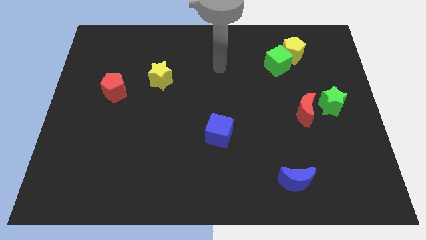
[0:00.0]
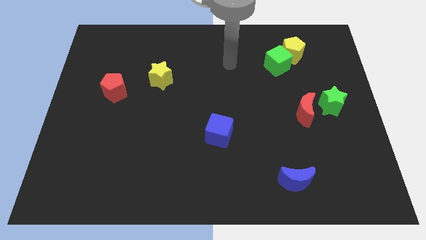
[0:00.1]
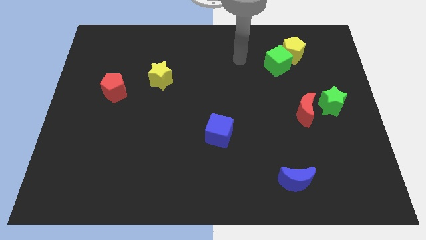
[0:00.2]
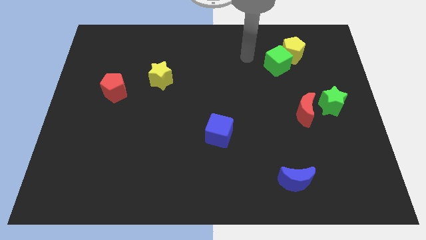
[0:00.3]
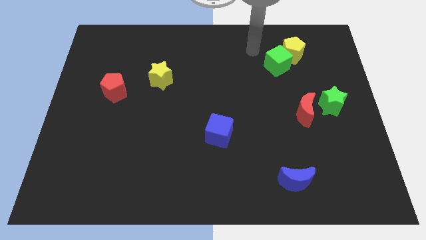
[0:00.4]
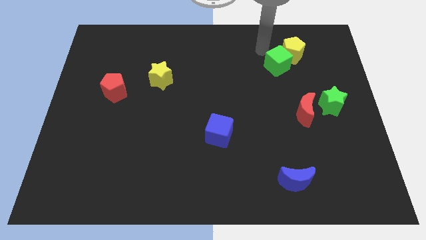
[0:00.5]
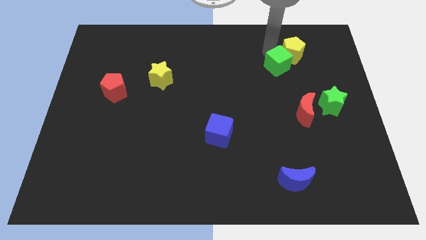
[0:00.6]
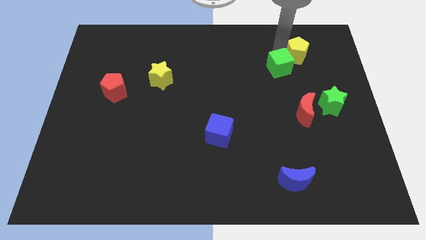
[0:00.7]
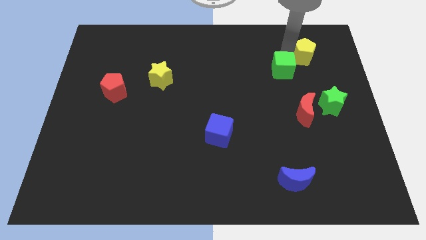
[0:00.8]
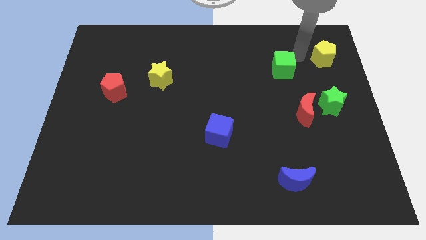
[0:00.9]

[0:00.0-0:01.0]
pull the green cube apart from the yellow pentagon

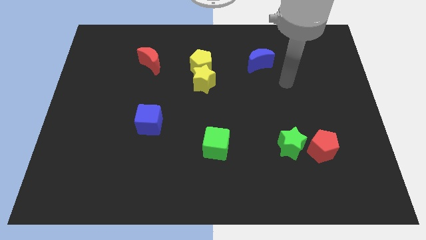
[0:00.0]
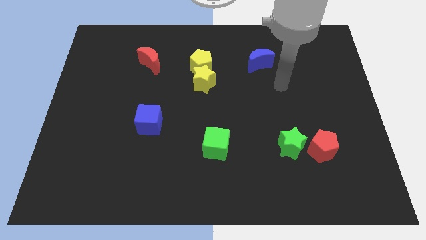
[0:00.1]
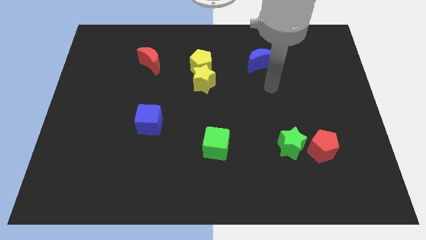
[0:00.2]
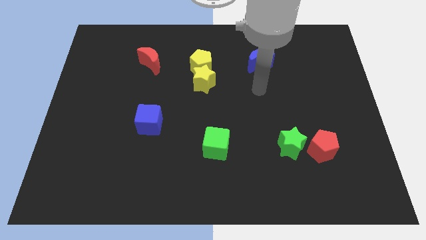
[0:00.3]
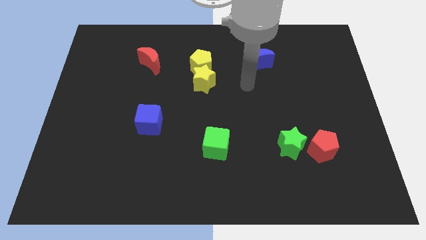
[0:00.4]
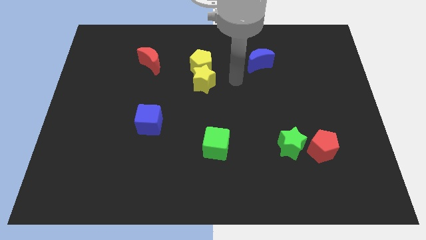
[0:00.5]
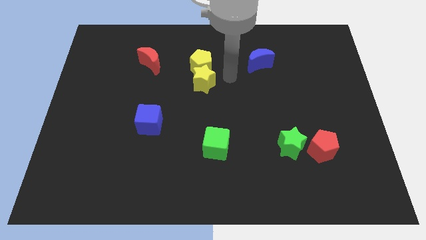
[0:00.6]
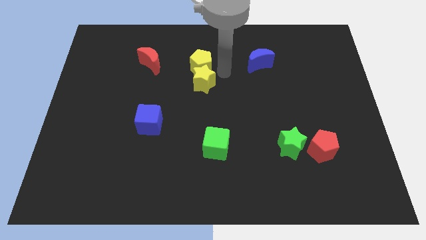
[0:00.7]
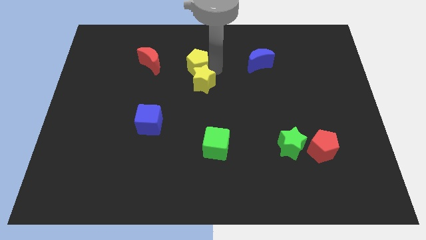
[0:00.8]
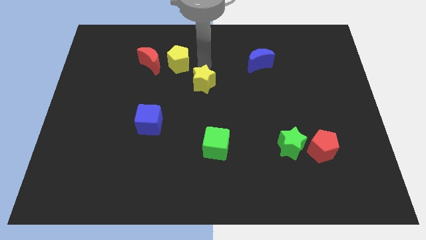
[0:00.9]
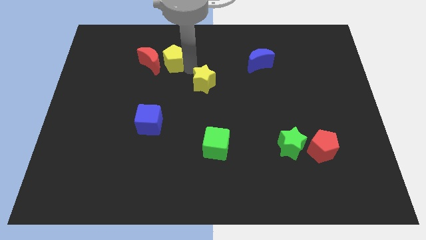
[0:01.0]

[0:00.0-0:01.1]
move the yellow star away from the yellow pentagon

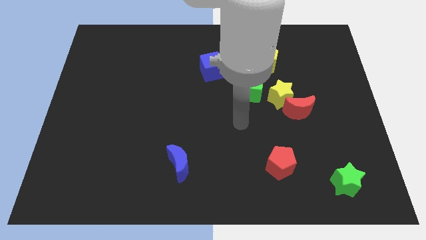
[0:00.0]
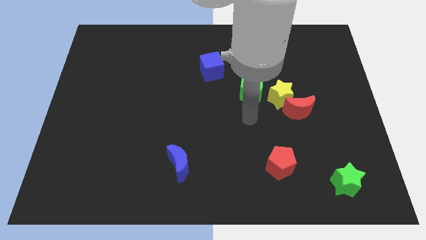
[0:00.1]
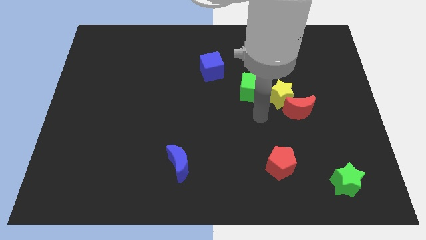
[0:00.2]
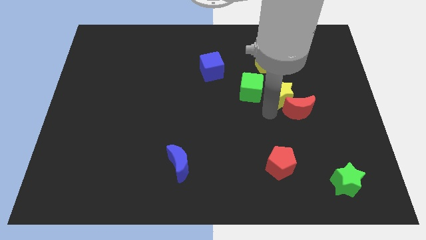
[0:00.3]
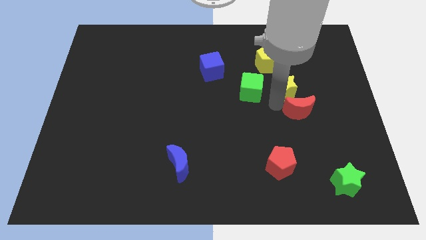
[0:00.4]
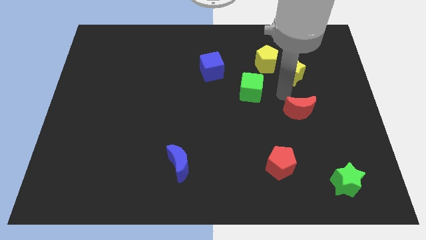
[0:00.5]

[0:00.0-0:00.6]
move the red moon away from the yellow star

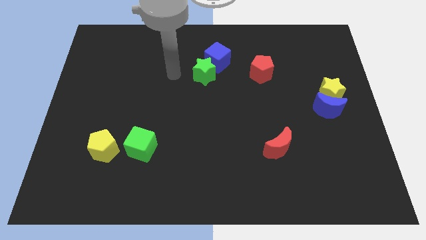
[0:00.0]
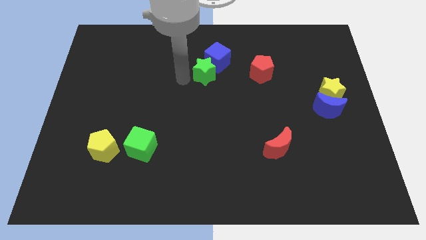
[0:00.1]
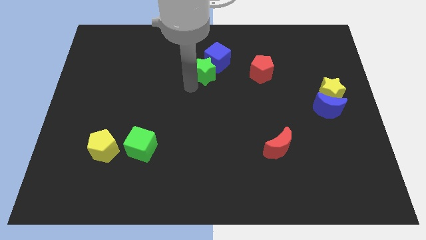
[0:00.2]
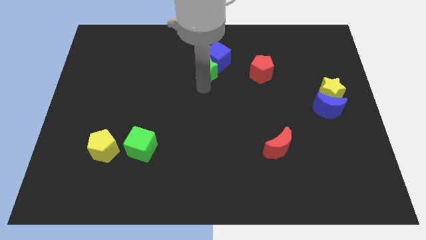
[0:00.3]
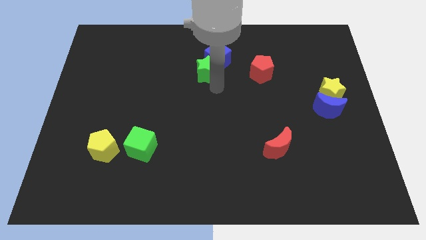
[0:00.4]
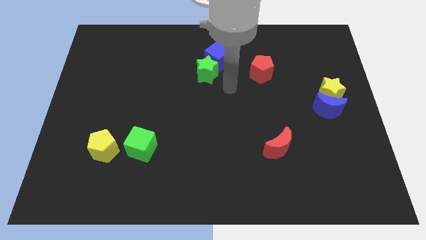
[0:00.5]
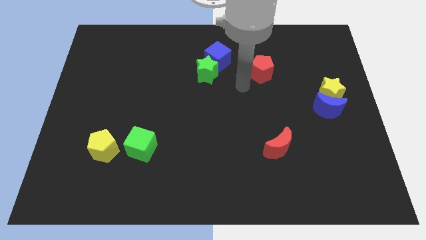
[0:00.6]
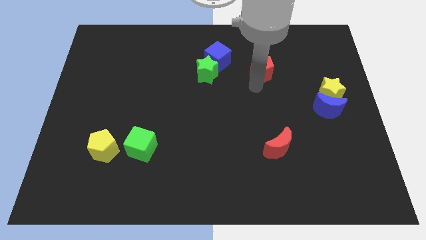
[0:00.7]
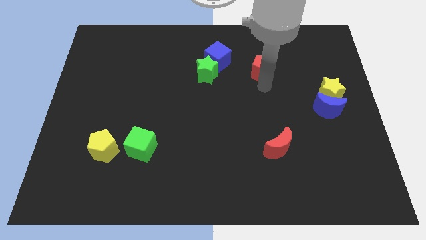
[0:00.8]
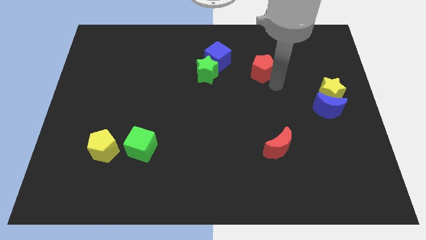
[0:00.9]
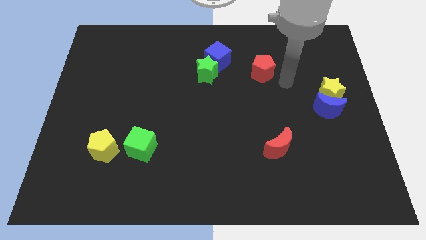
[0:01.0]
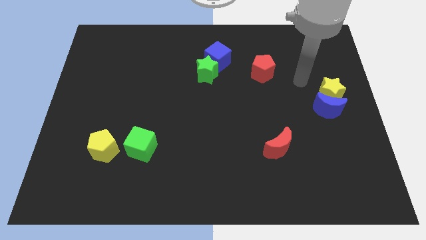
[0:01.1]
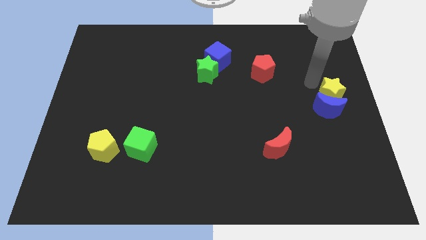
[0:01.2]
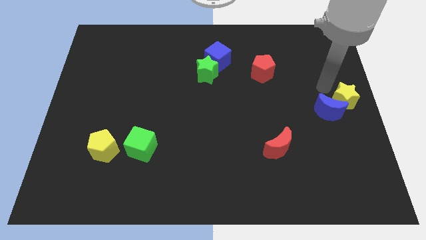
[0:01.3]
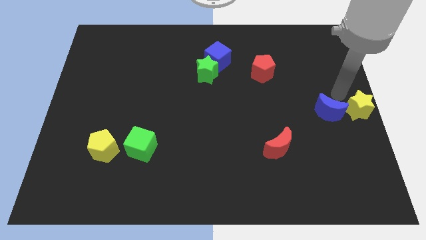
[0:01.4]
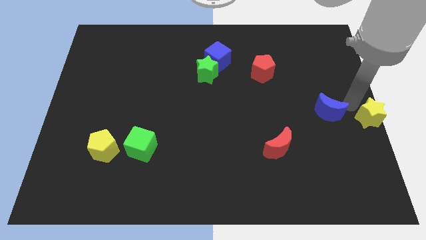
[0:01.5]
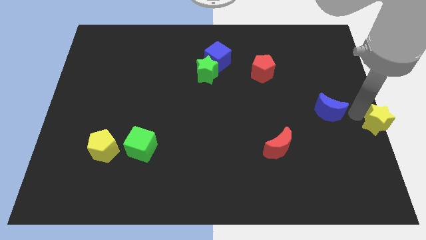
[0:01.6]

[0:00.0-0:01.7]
move the blue moon away from the yellow star

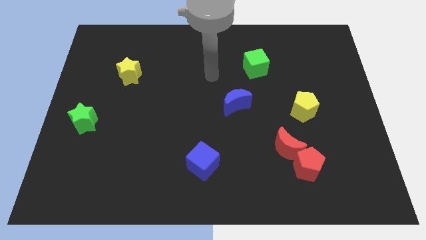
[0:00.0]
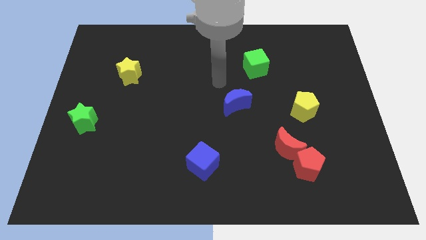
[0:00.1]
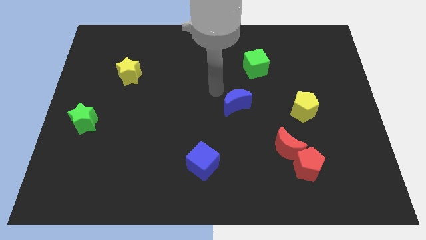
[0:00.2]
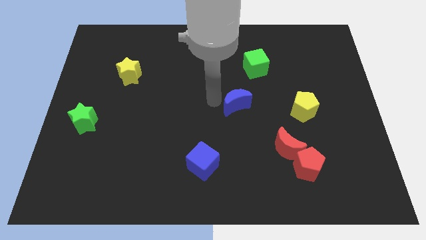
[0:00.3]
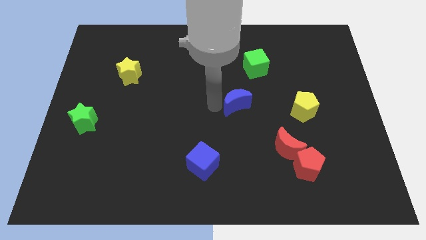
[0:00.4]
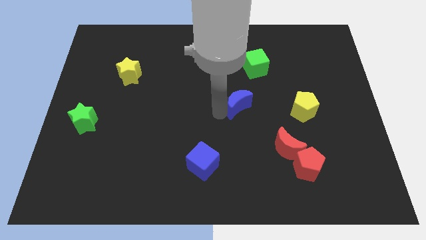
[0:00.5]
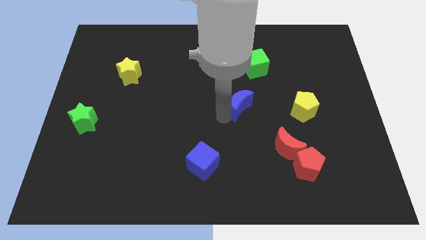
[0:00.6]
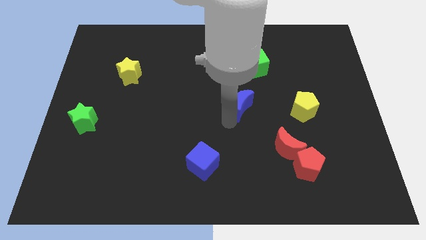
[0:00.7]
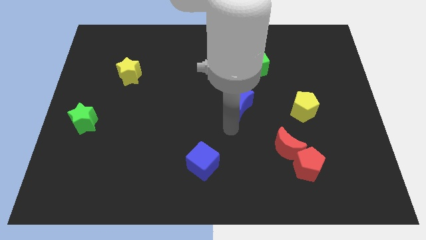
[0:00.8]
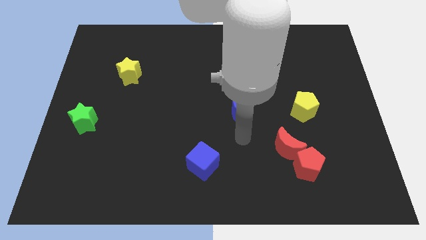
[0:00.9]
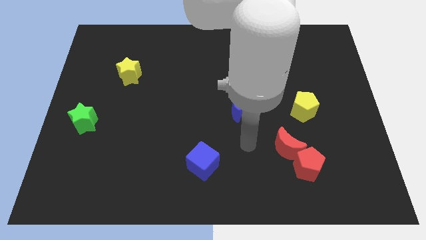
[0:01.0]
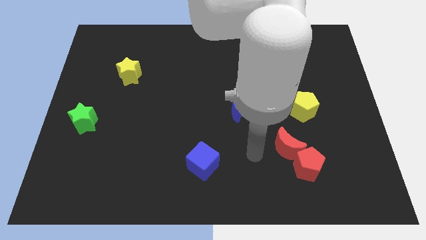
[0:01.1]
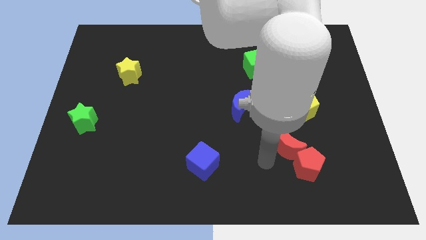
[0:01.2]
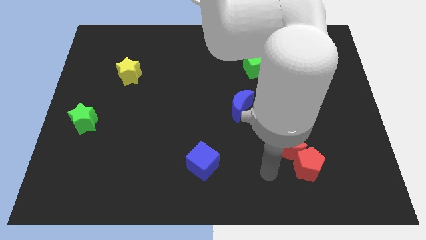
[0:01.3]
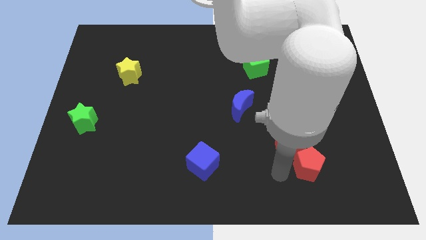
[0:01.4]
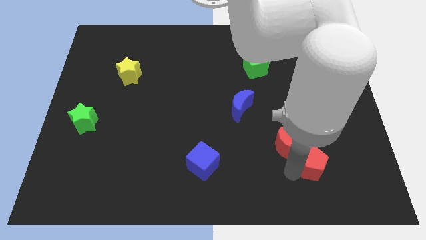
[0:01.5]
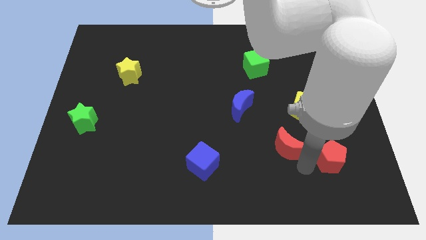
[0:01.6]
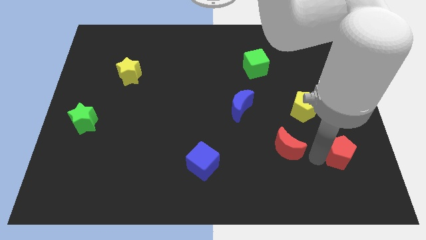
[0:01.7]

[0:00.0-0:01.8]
pull the red moon apart from the red pentagon

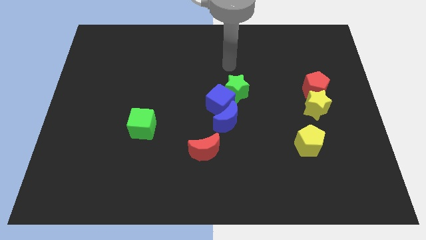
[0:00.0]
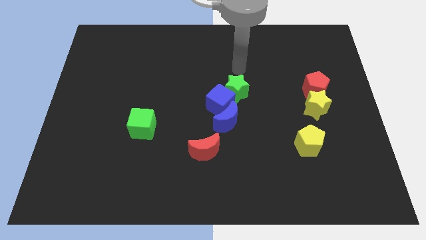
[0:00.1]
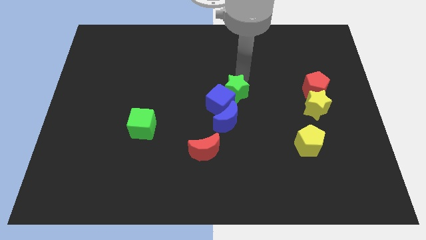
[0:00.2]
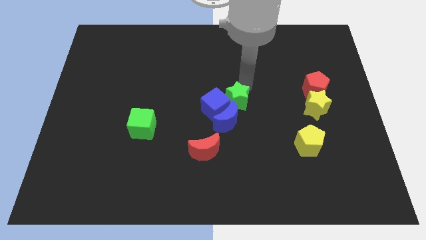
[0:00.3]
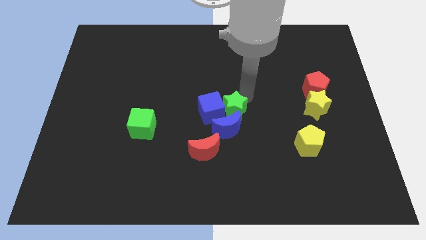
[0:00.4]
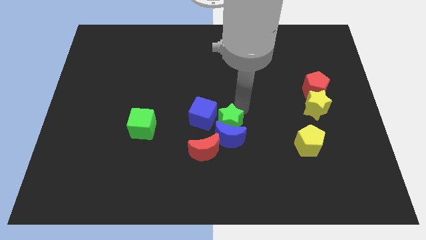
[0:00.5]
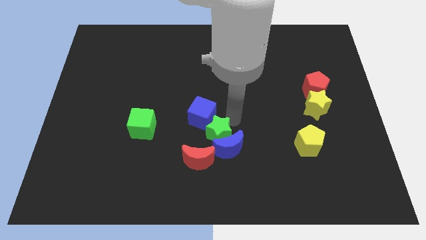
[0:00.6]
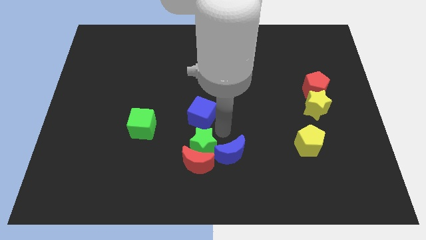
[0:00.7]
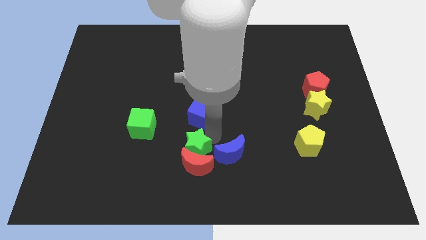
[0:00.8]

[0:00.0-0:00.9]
pull the blue cube apart from the green star and blue moon

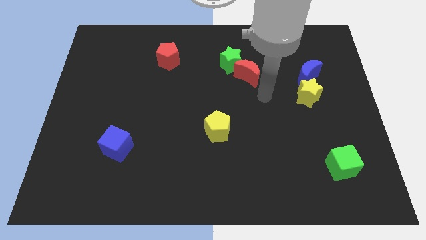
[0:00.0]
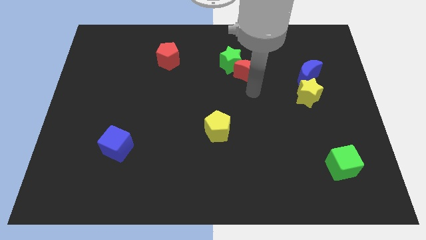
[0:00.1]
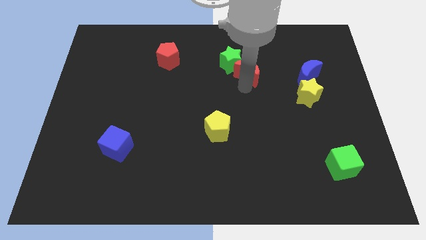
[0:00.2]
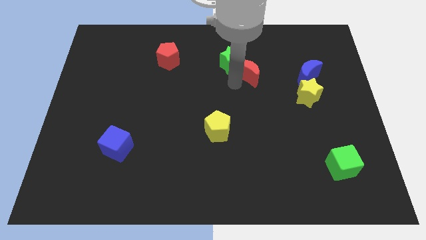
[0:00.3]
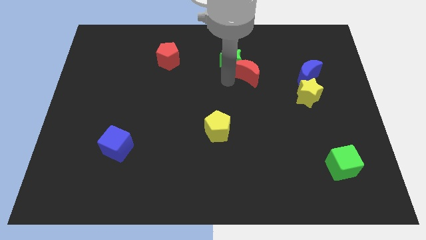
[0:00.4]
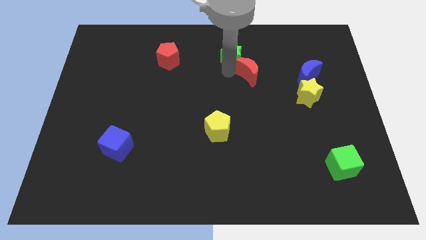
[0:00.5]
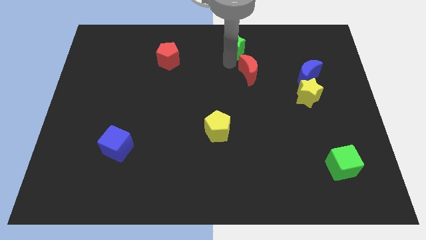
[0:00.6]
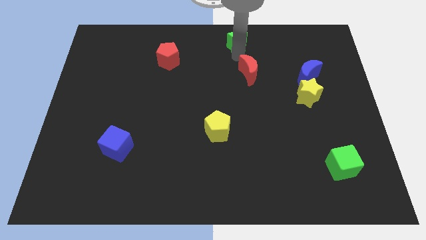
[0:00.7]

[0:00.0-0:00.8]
move the red moon away from the green star

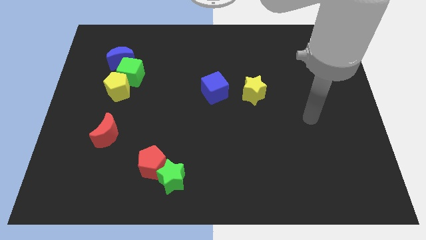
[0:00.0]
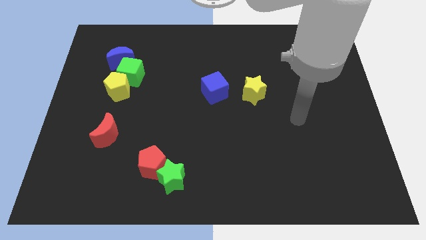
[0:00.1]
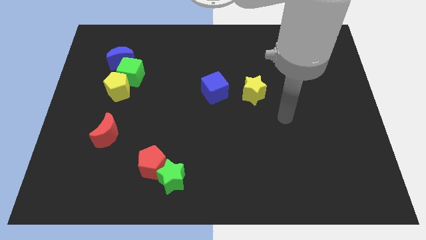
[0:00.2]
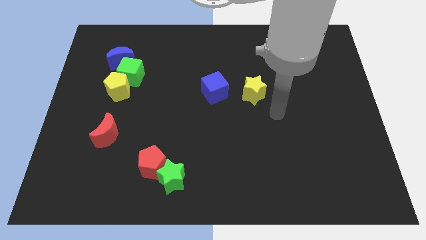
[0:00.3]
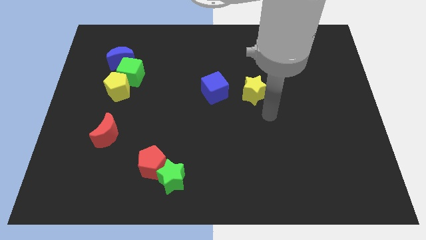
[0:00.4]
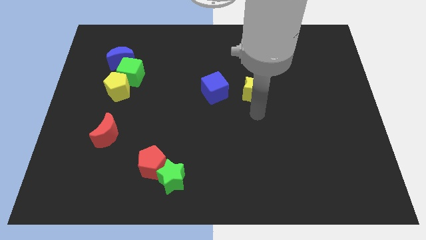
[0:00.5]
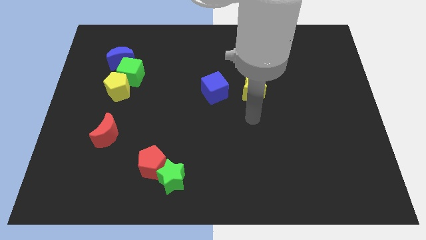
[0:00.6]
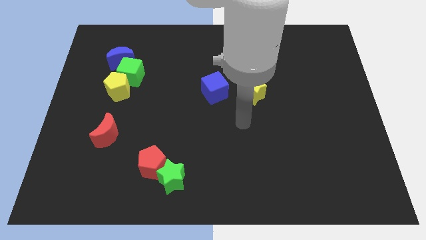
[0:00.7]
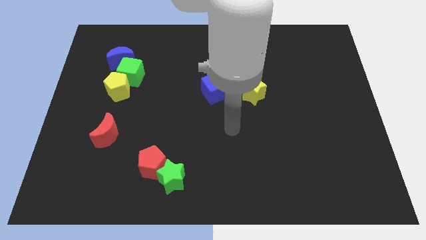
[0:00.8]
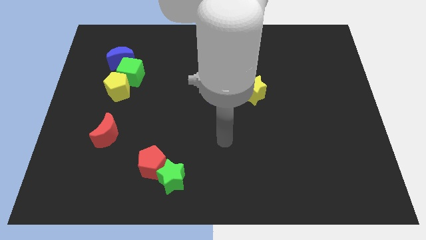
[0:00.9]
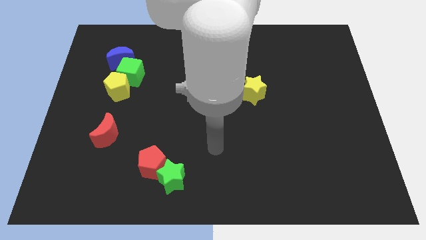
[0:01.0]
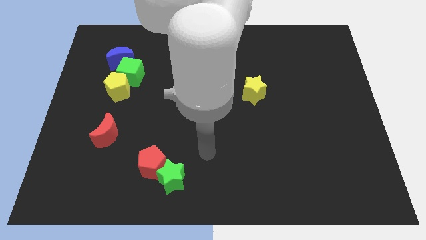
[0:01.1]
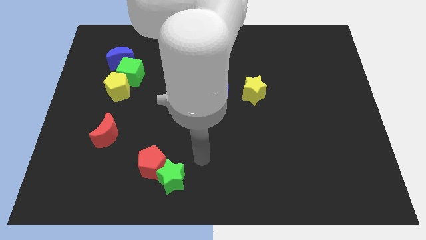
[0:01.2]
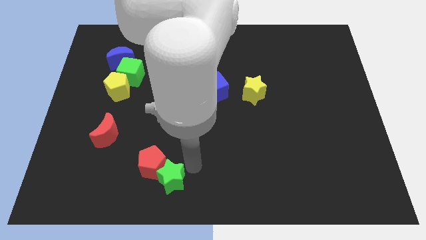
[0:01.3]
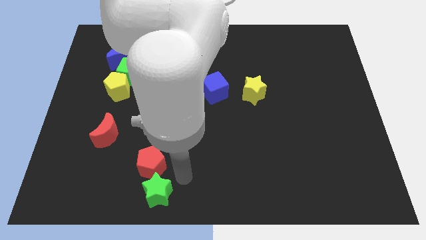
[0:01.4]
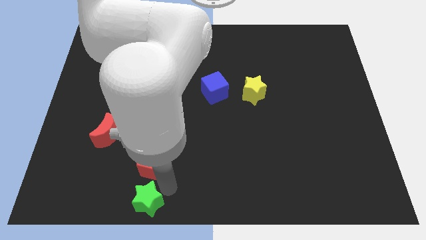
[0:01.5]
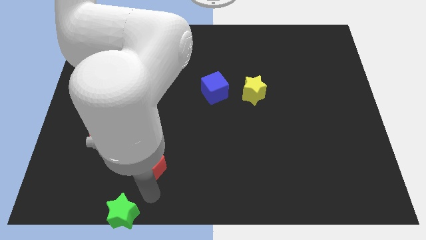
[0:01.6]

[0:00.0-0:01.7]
separate the red pentagon from the green star
